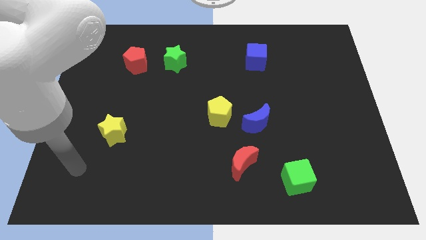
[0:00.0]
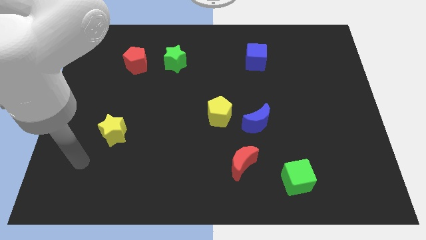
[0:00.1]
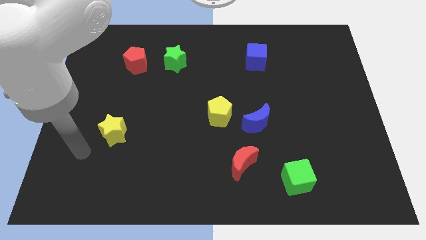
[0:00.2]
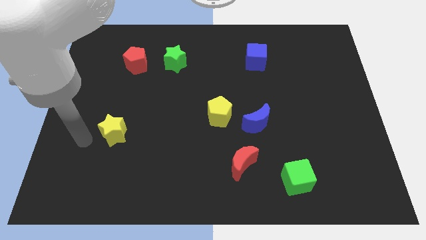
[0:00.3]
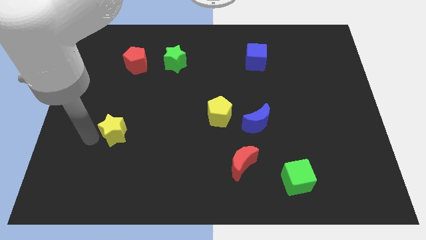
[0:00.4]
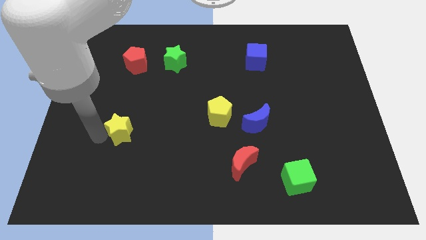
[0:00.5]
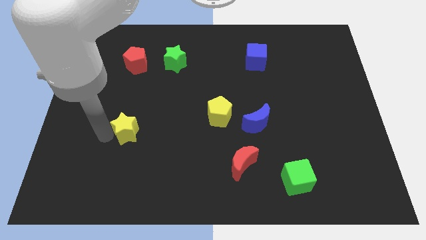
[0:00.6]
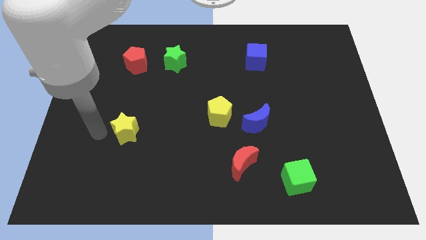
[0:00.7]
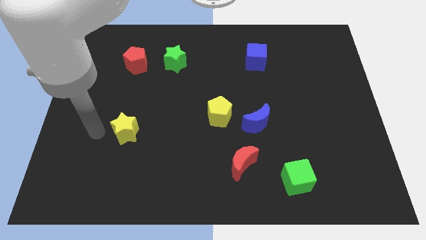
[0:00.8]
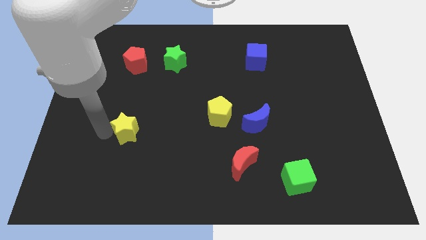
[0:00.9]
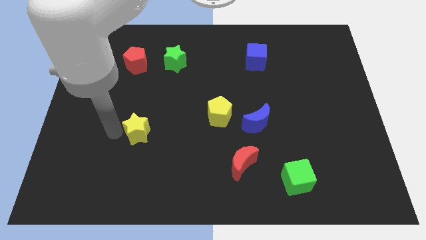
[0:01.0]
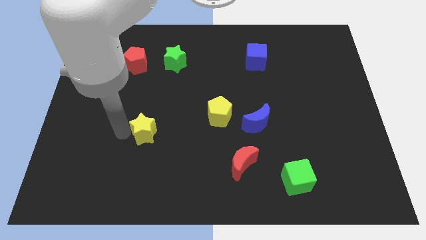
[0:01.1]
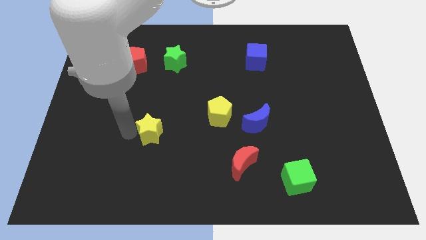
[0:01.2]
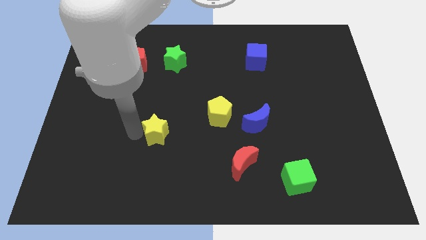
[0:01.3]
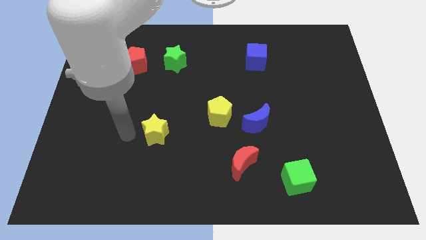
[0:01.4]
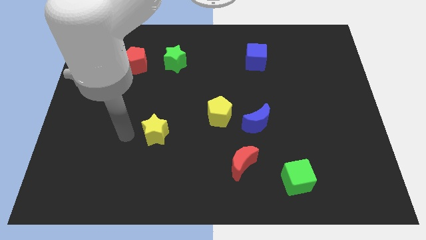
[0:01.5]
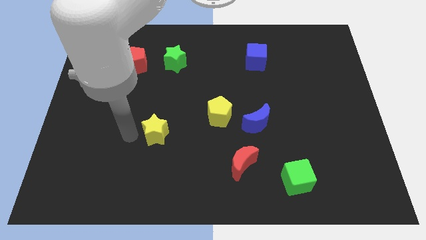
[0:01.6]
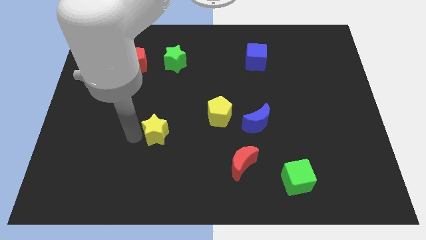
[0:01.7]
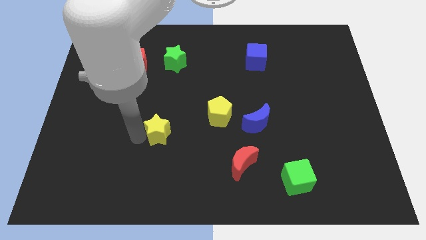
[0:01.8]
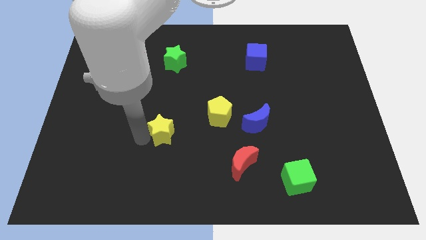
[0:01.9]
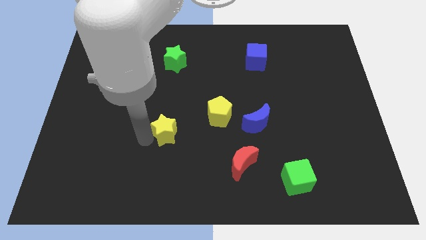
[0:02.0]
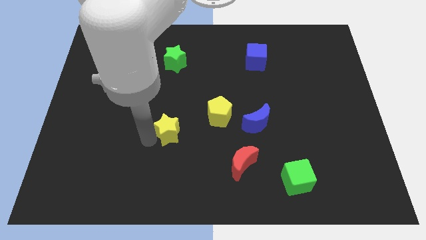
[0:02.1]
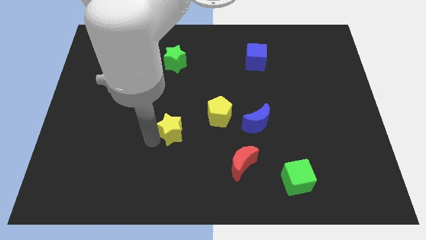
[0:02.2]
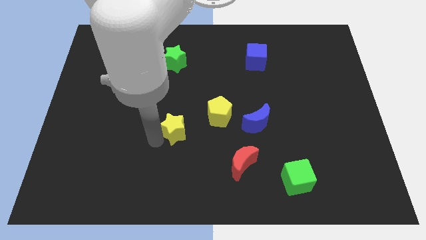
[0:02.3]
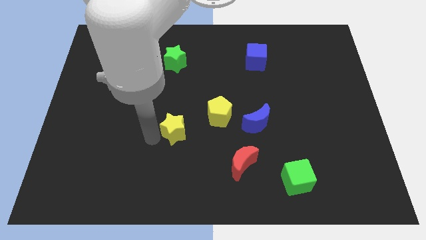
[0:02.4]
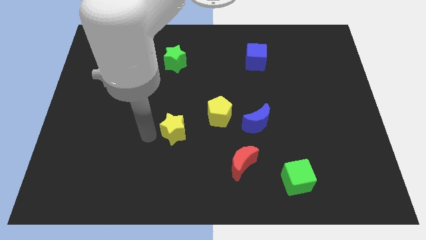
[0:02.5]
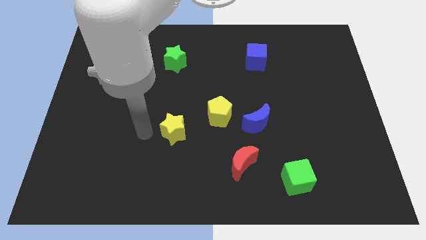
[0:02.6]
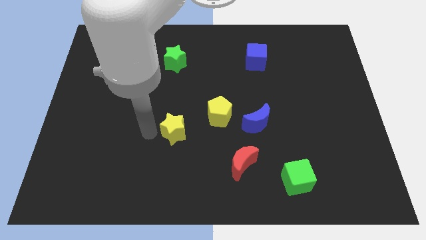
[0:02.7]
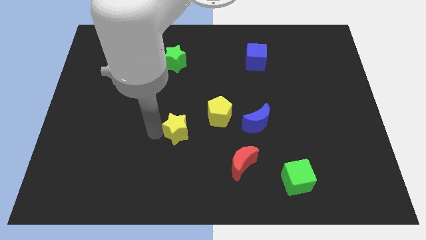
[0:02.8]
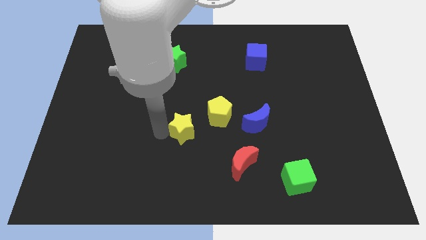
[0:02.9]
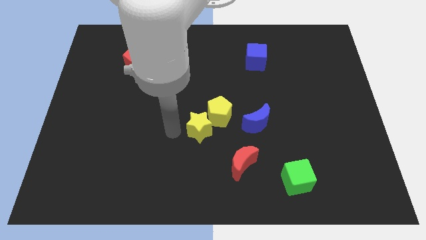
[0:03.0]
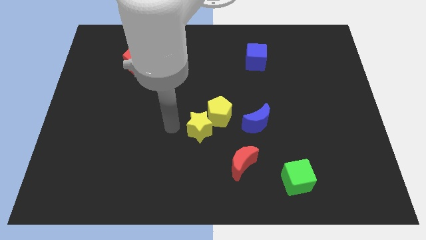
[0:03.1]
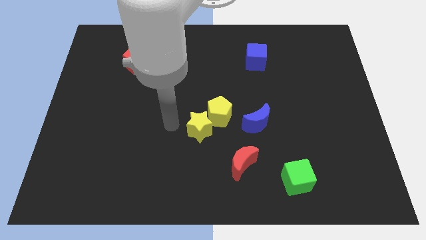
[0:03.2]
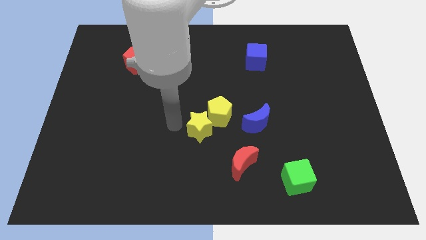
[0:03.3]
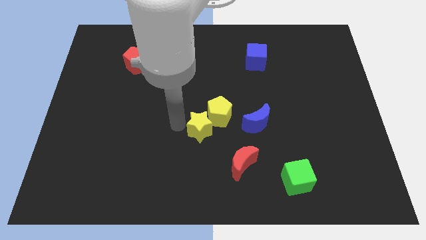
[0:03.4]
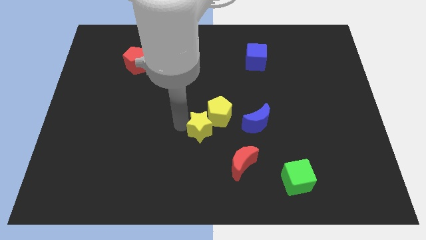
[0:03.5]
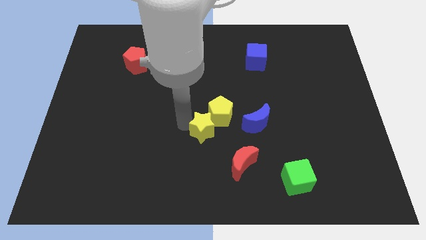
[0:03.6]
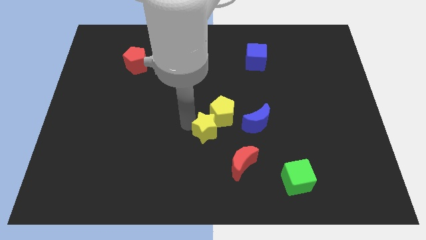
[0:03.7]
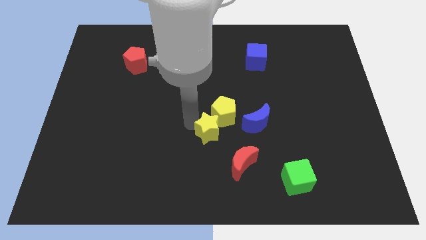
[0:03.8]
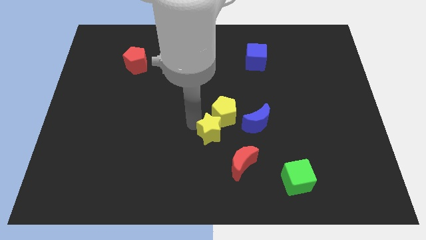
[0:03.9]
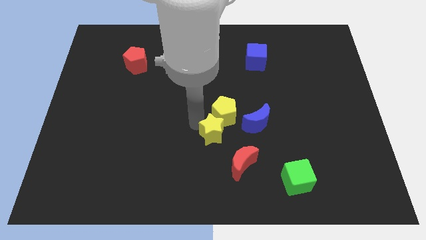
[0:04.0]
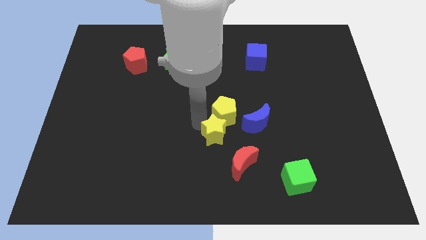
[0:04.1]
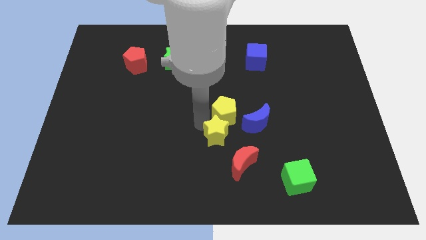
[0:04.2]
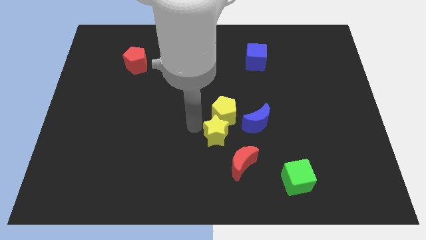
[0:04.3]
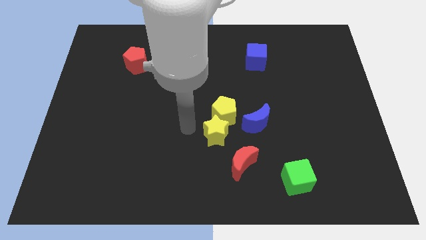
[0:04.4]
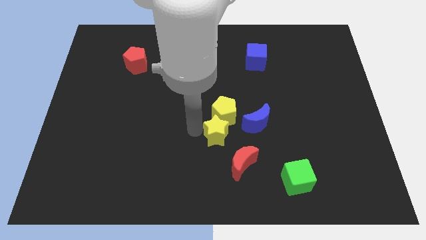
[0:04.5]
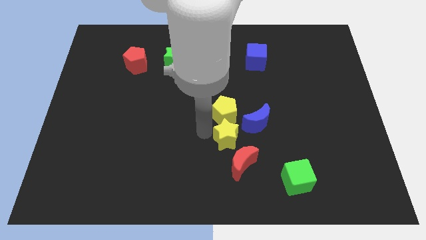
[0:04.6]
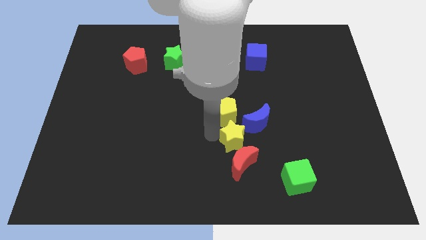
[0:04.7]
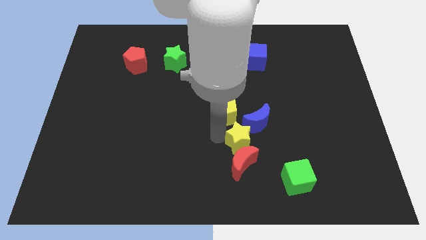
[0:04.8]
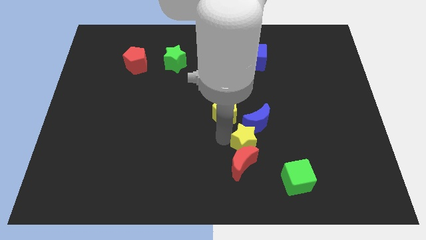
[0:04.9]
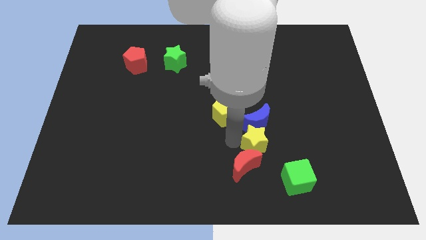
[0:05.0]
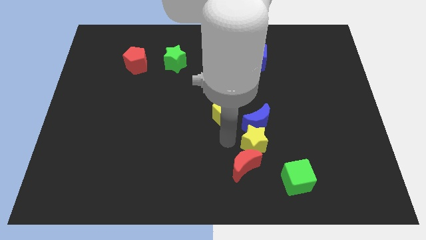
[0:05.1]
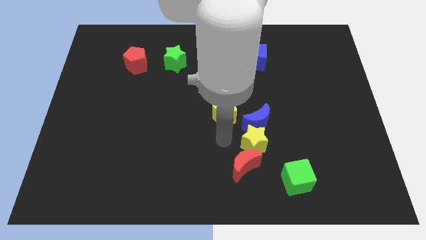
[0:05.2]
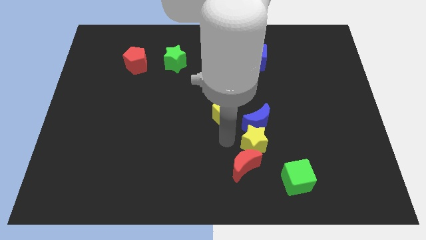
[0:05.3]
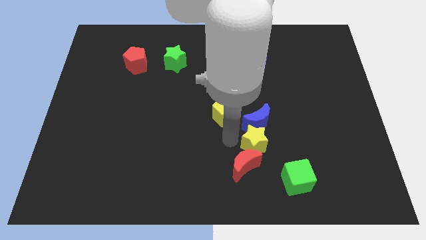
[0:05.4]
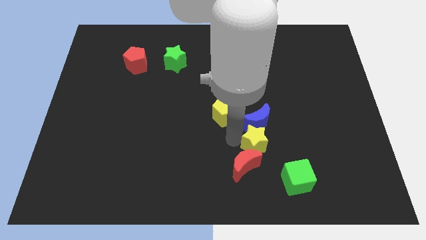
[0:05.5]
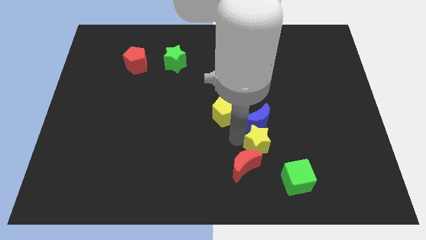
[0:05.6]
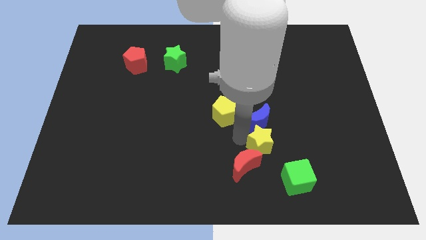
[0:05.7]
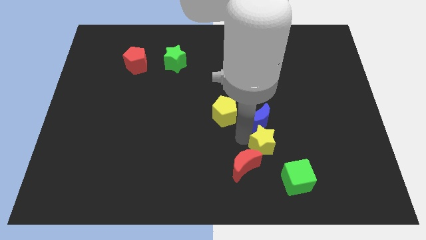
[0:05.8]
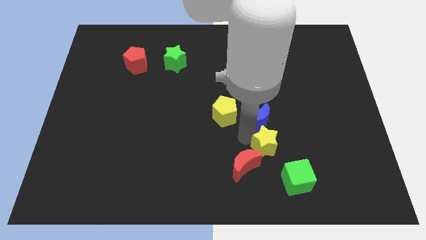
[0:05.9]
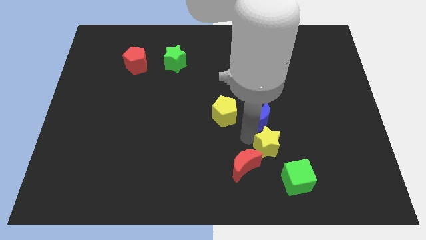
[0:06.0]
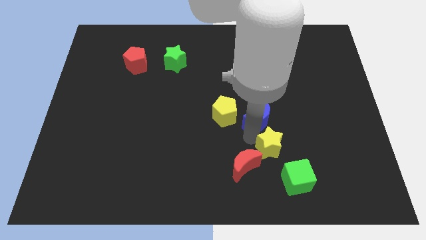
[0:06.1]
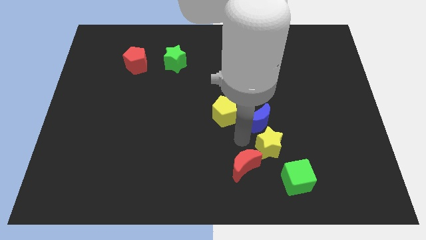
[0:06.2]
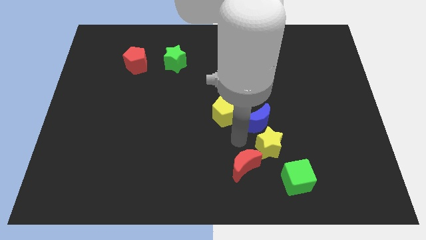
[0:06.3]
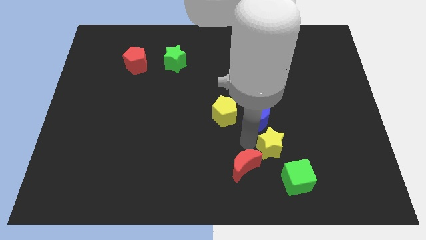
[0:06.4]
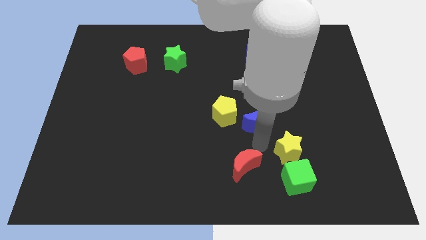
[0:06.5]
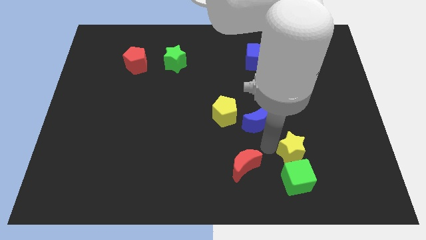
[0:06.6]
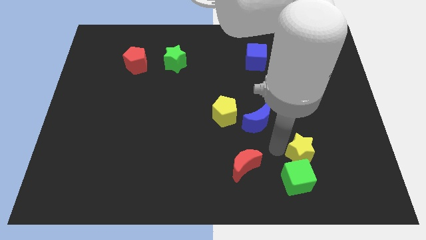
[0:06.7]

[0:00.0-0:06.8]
push the yellow star to the top right side of the green cube
